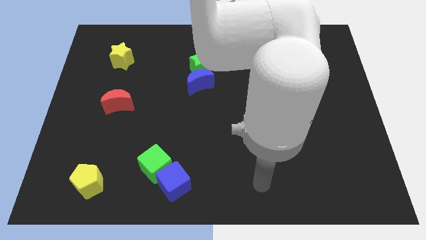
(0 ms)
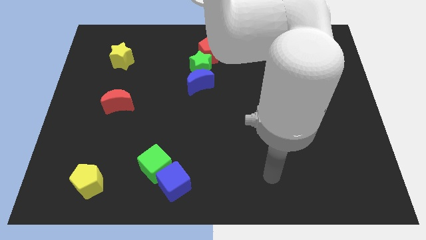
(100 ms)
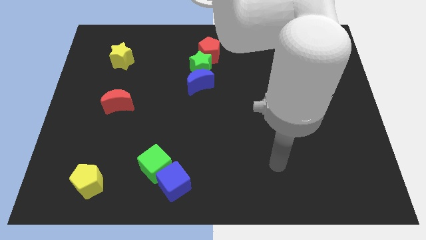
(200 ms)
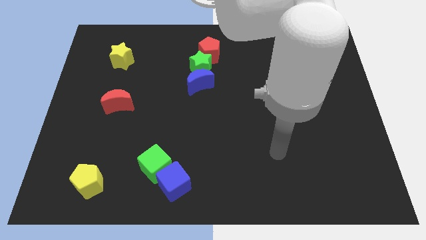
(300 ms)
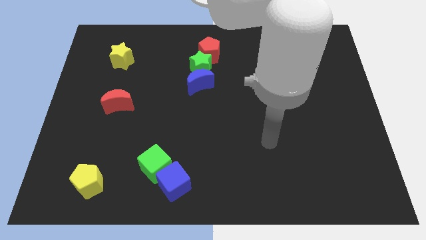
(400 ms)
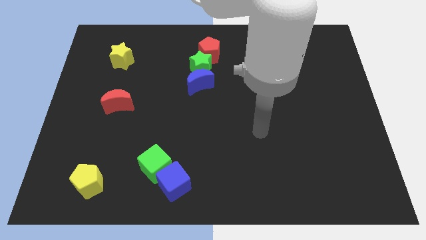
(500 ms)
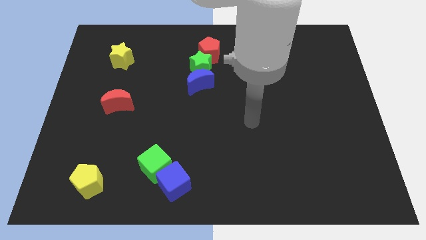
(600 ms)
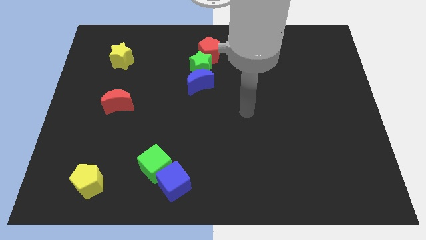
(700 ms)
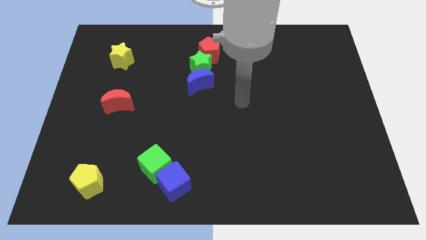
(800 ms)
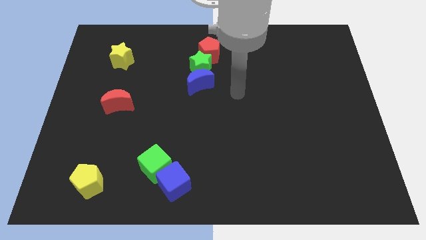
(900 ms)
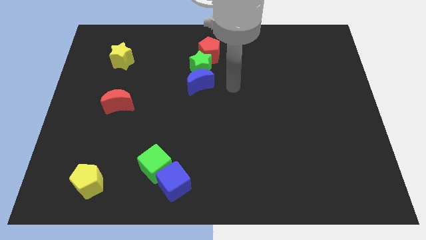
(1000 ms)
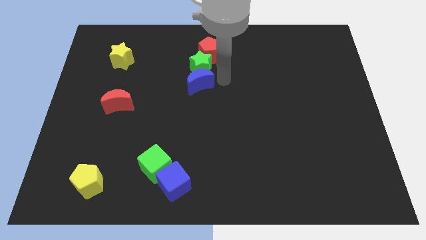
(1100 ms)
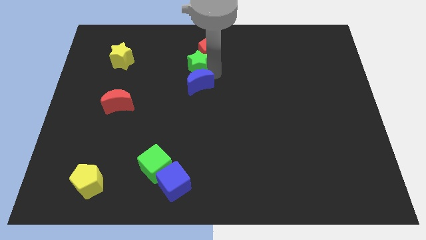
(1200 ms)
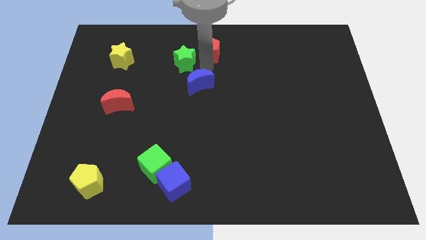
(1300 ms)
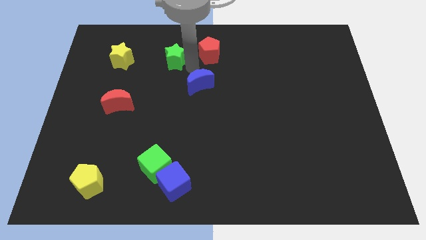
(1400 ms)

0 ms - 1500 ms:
separate the blue moon from the green star

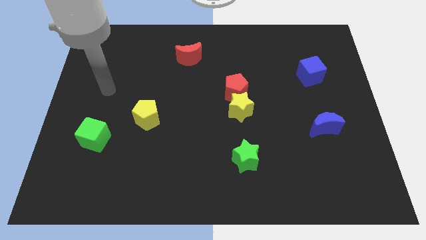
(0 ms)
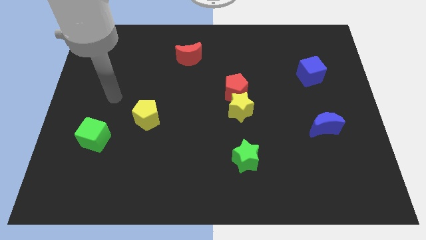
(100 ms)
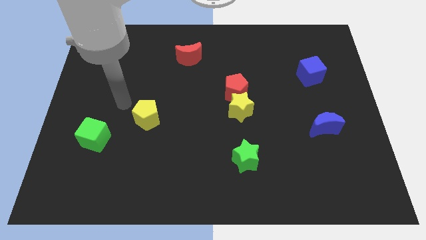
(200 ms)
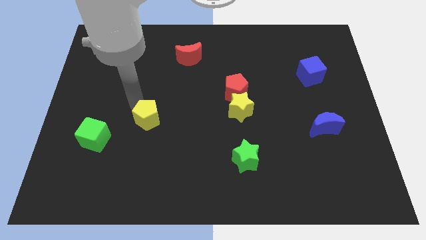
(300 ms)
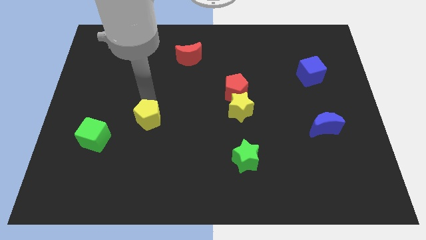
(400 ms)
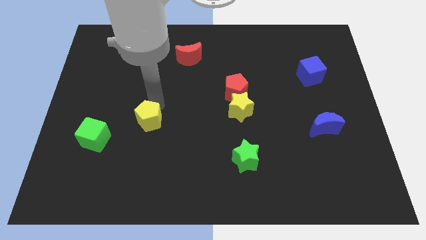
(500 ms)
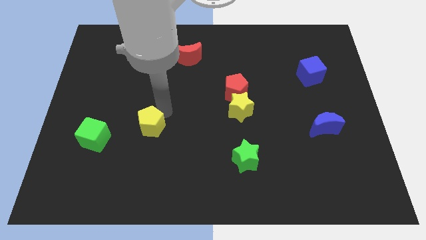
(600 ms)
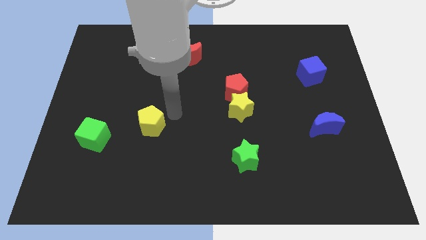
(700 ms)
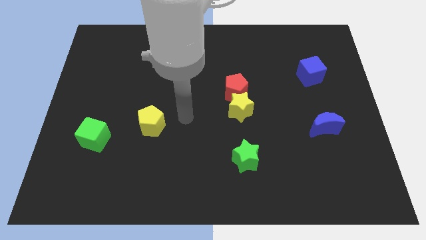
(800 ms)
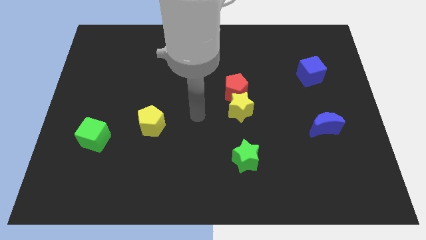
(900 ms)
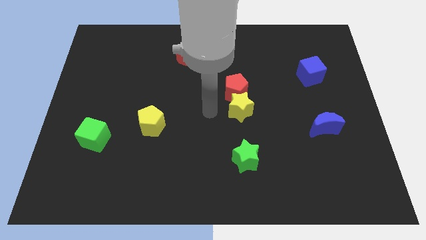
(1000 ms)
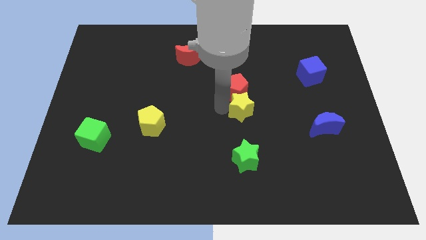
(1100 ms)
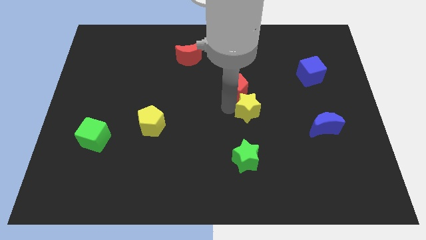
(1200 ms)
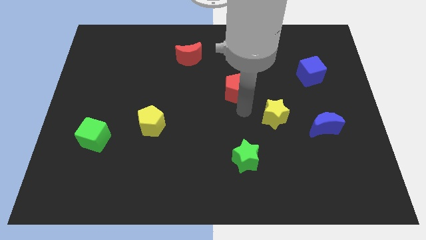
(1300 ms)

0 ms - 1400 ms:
move the red pentagon away from the yellow star

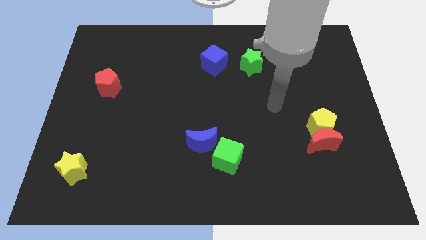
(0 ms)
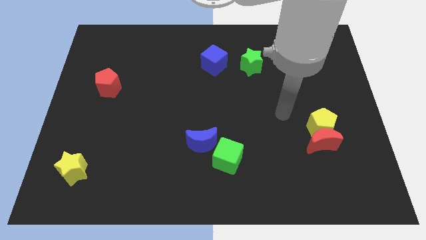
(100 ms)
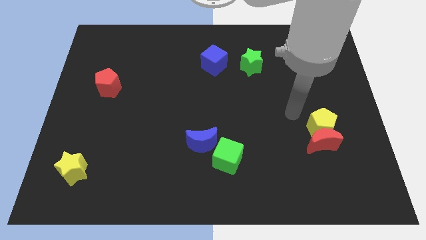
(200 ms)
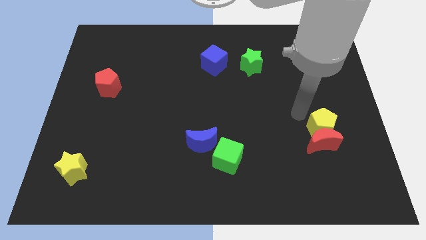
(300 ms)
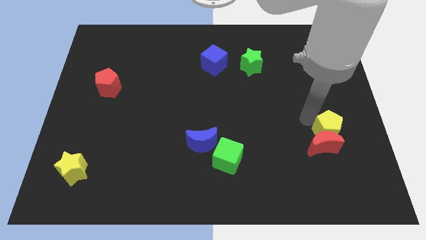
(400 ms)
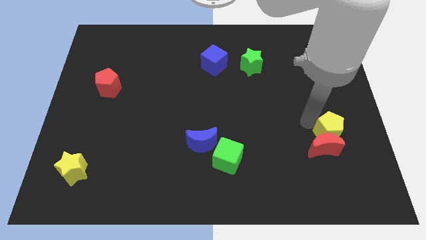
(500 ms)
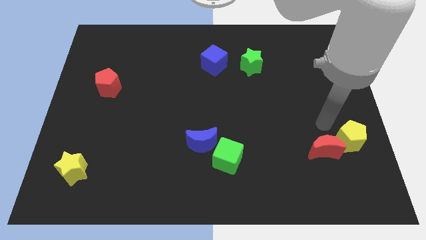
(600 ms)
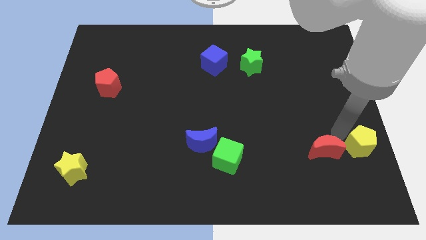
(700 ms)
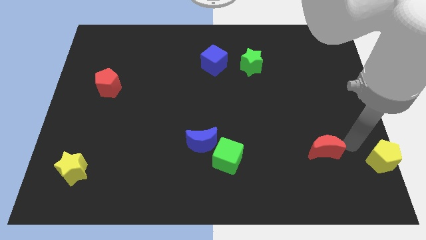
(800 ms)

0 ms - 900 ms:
separate the red moon from the yellow pentagon

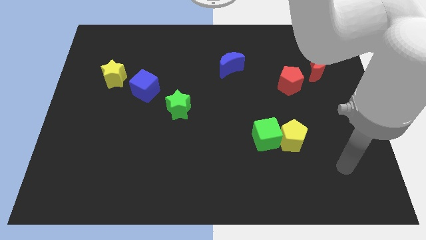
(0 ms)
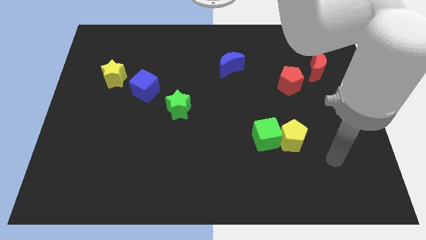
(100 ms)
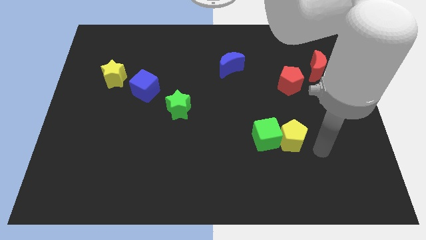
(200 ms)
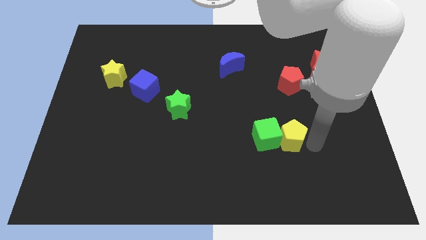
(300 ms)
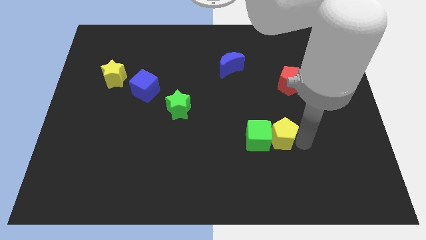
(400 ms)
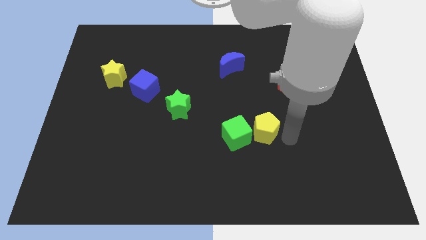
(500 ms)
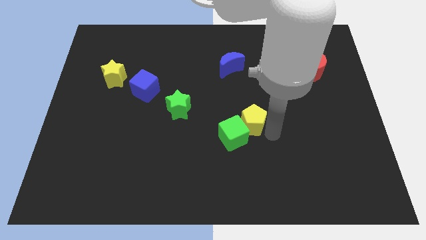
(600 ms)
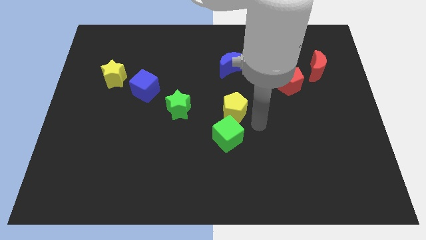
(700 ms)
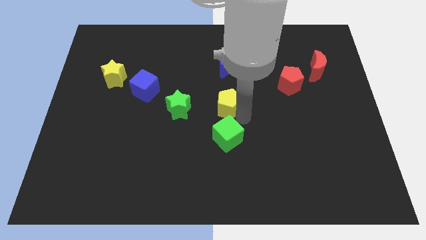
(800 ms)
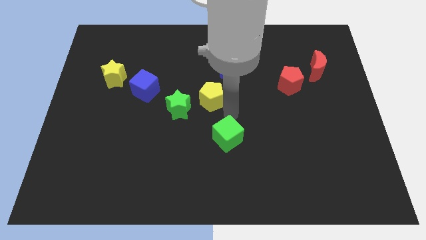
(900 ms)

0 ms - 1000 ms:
separate the green cube from the yellow pentagon

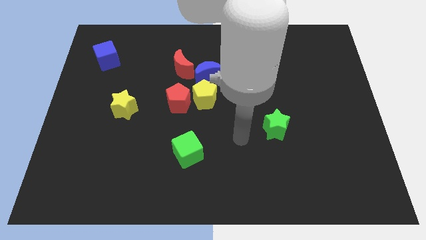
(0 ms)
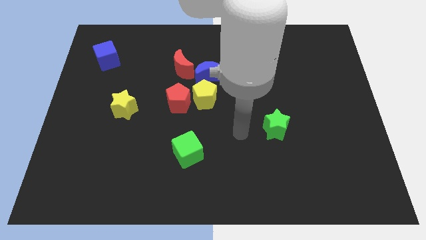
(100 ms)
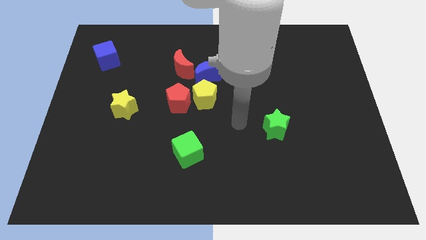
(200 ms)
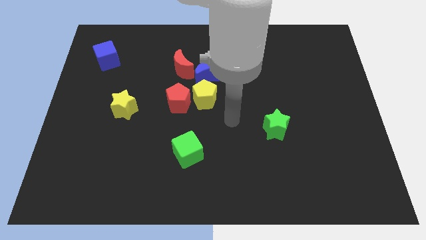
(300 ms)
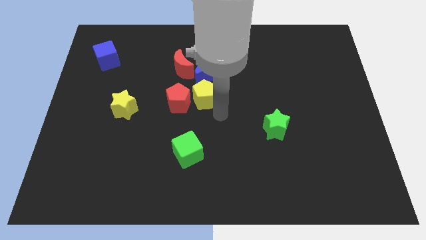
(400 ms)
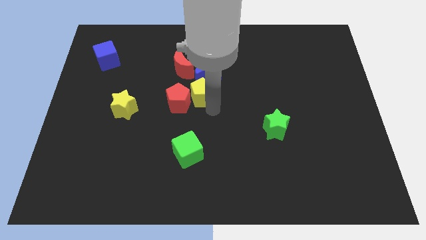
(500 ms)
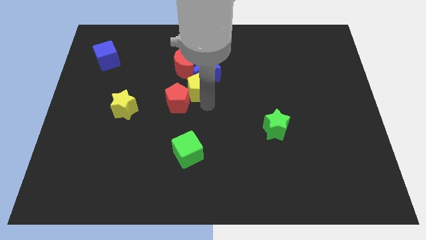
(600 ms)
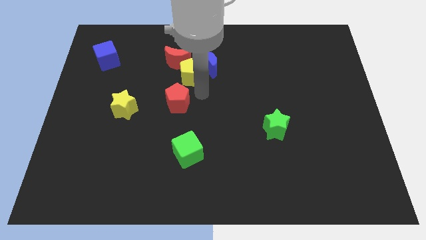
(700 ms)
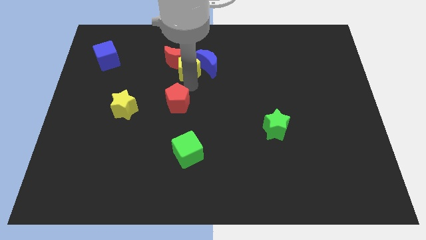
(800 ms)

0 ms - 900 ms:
pull the red pentagon apart from the yellow pentagon

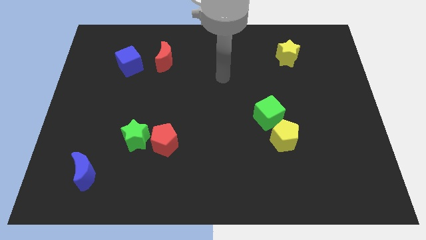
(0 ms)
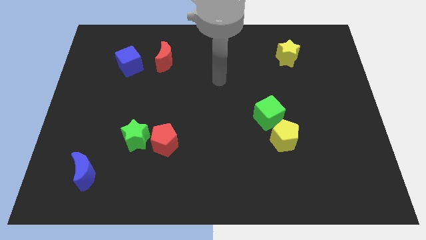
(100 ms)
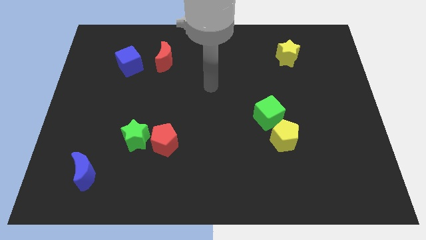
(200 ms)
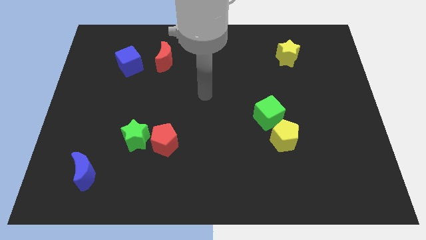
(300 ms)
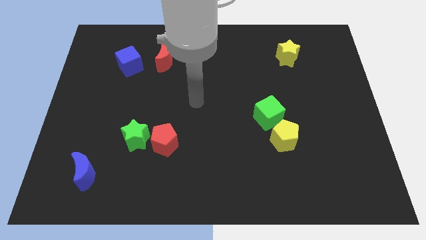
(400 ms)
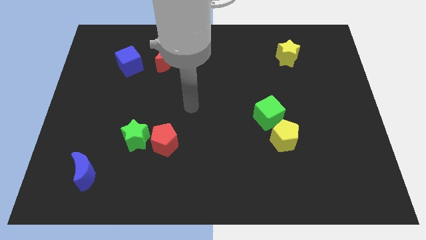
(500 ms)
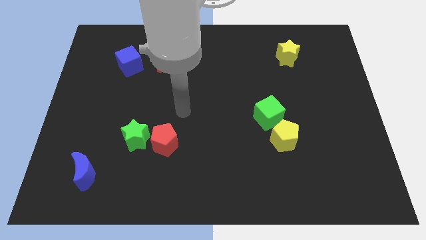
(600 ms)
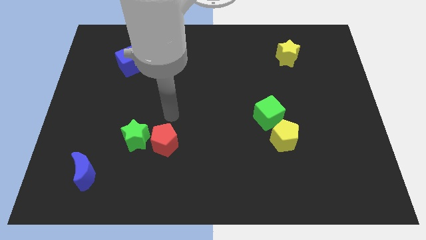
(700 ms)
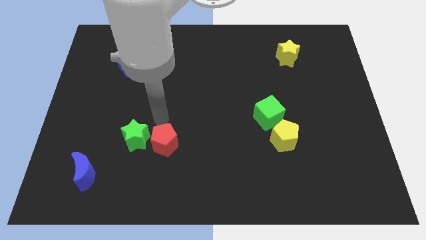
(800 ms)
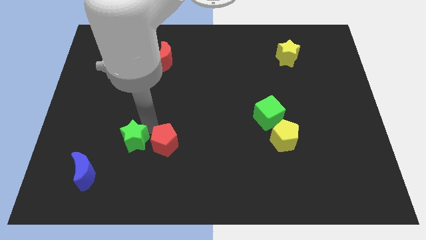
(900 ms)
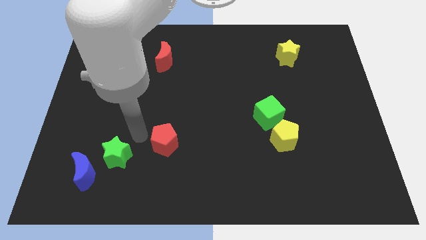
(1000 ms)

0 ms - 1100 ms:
move the red pentagon away from the green star

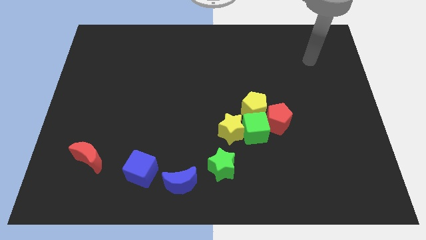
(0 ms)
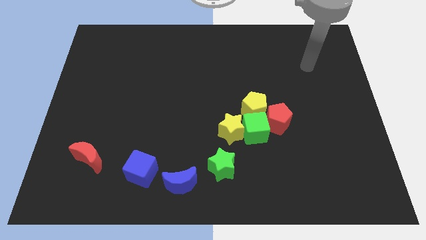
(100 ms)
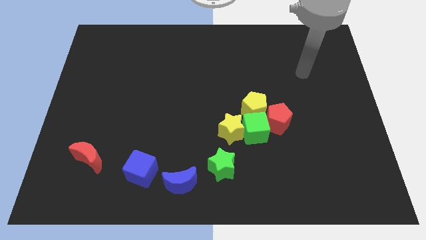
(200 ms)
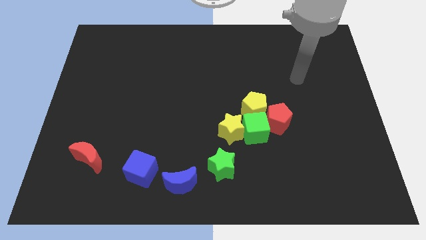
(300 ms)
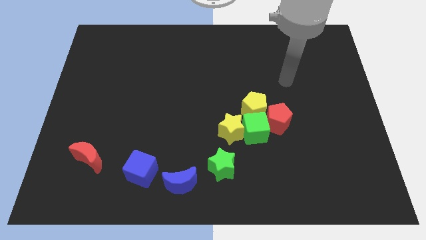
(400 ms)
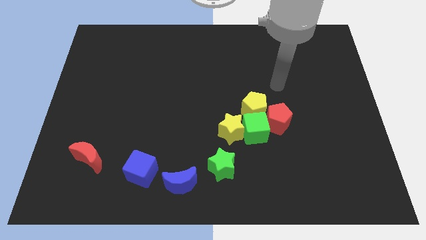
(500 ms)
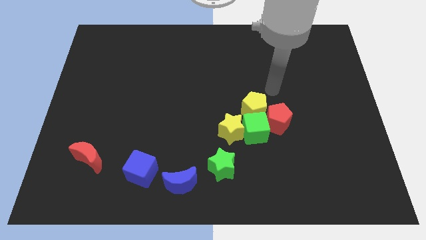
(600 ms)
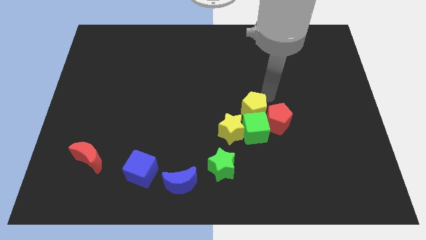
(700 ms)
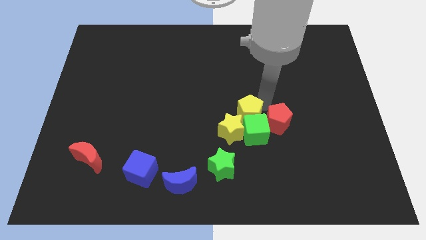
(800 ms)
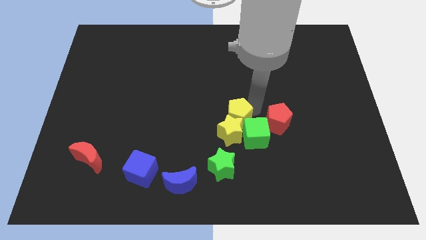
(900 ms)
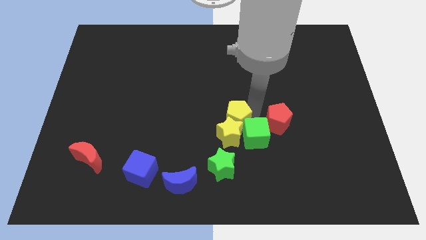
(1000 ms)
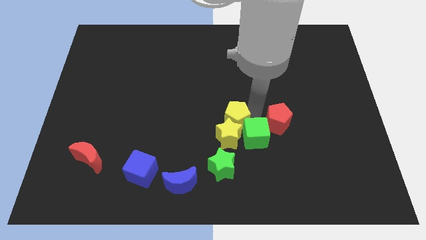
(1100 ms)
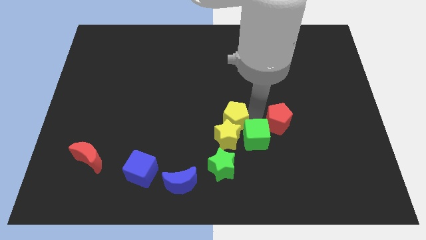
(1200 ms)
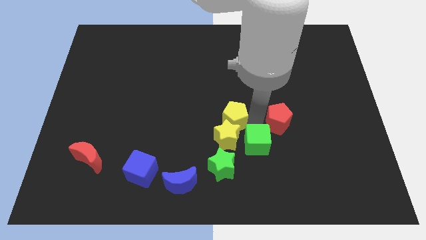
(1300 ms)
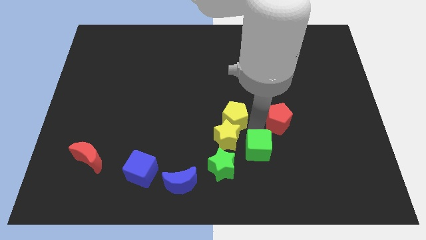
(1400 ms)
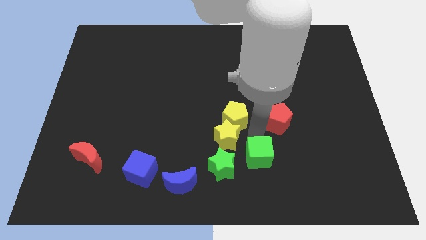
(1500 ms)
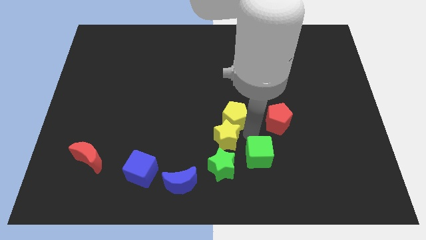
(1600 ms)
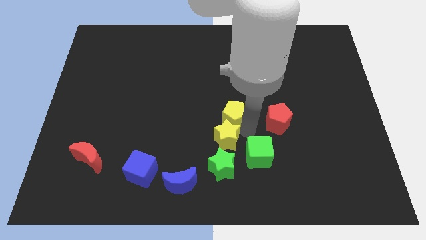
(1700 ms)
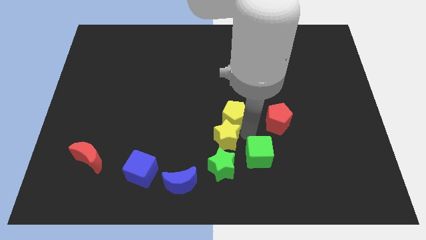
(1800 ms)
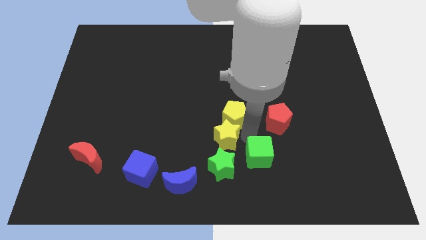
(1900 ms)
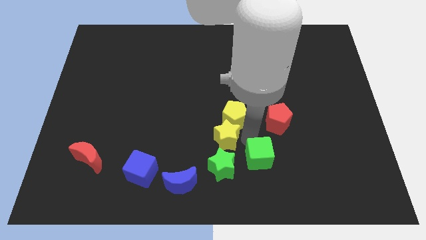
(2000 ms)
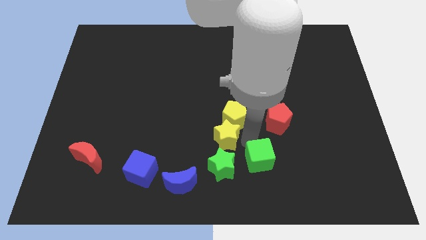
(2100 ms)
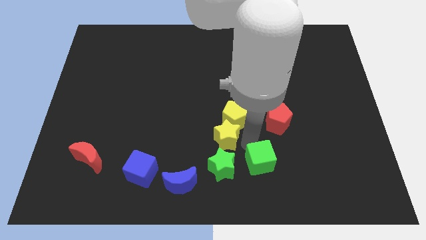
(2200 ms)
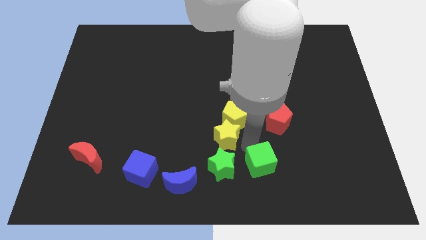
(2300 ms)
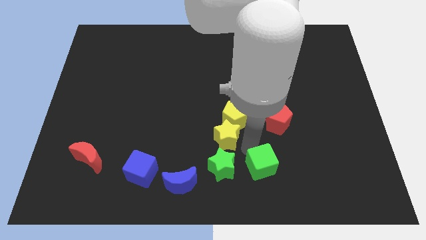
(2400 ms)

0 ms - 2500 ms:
separate the green cube from the group of blocks
